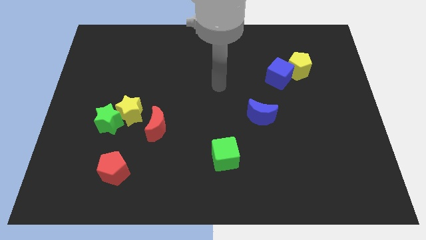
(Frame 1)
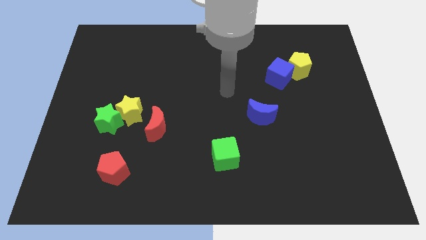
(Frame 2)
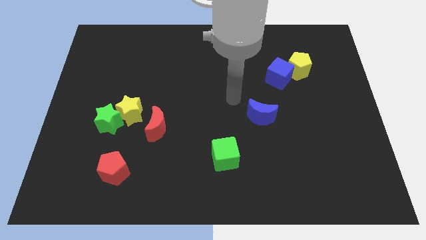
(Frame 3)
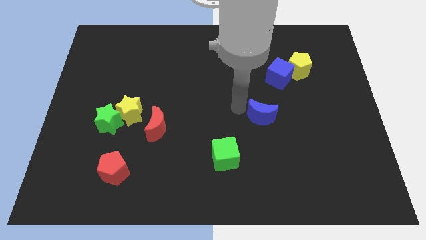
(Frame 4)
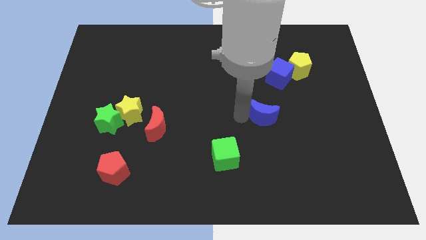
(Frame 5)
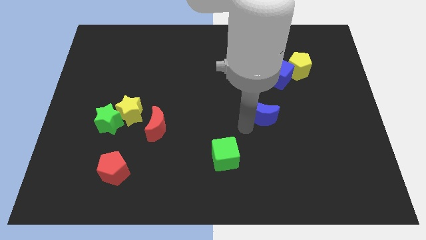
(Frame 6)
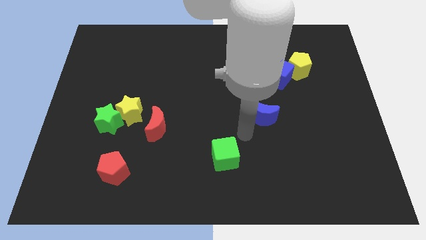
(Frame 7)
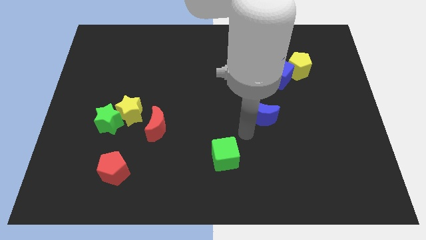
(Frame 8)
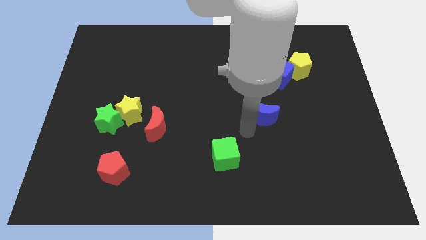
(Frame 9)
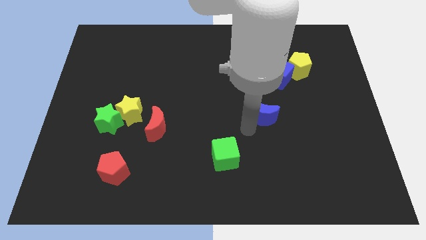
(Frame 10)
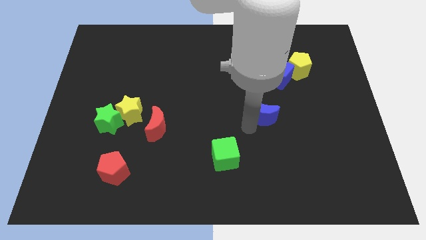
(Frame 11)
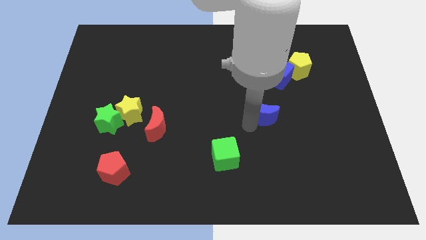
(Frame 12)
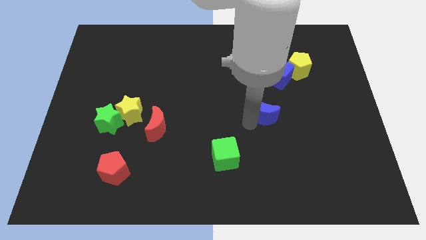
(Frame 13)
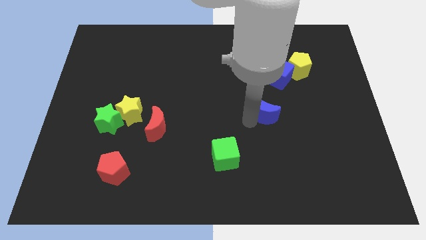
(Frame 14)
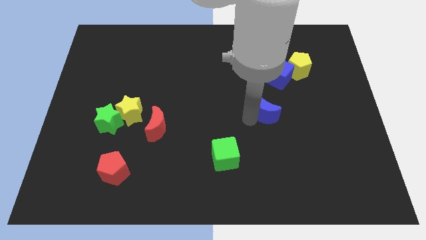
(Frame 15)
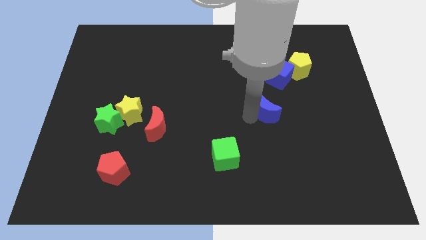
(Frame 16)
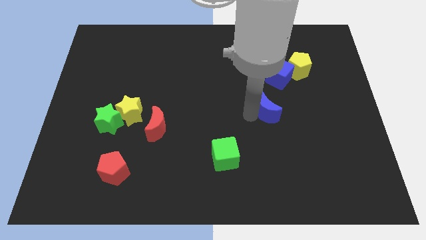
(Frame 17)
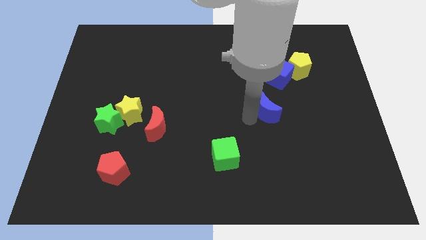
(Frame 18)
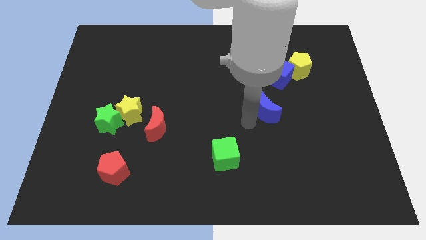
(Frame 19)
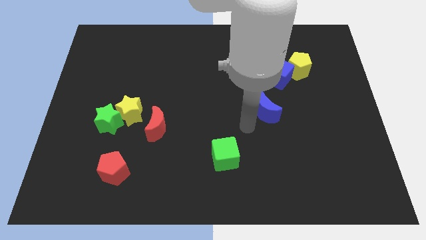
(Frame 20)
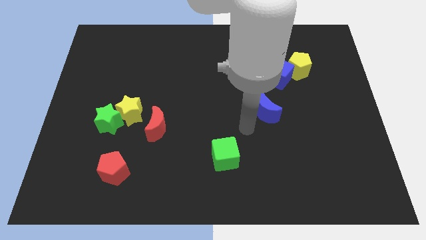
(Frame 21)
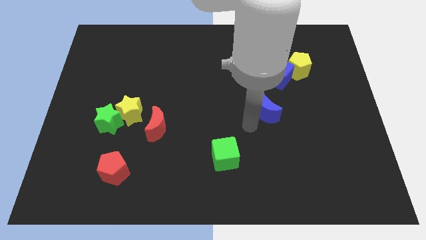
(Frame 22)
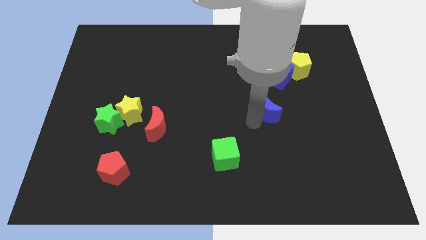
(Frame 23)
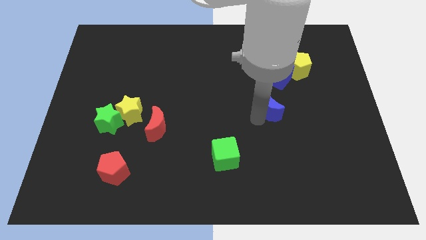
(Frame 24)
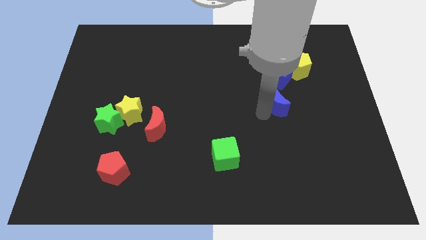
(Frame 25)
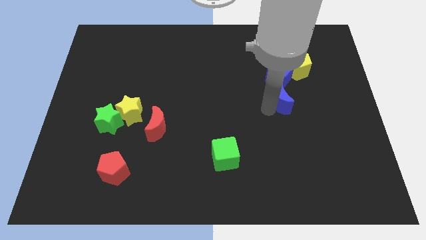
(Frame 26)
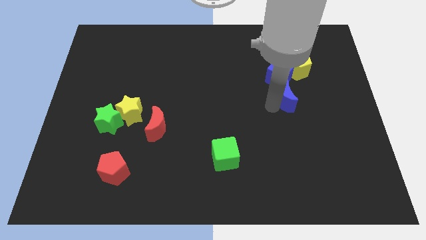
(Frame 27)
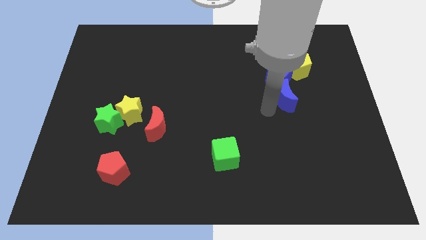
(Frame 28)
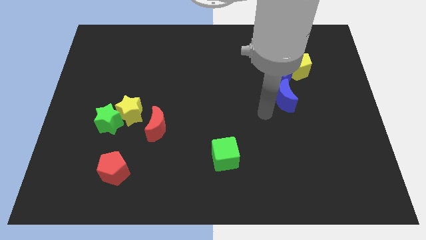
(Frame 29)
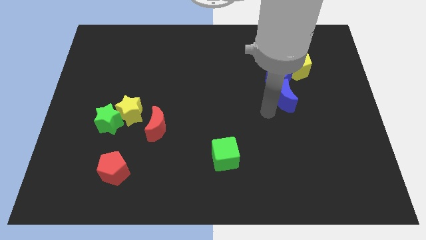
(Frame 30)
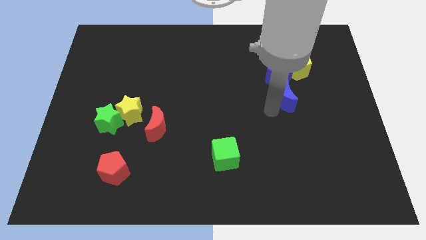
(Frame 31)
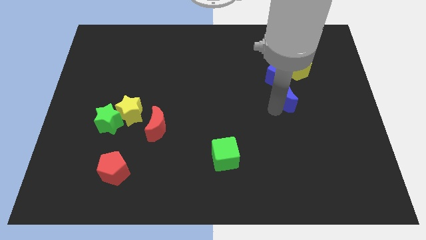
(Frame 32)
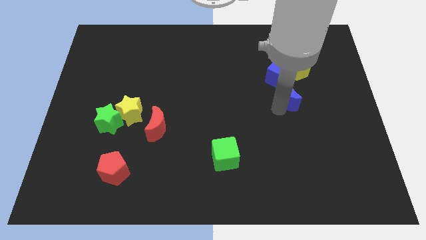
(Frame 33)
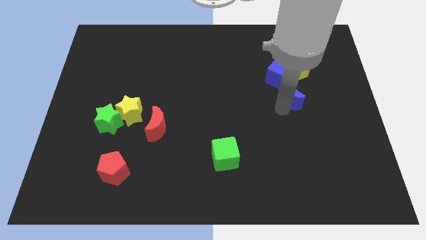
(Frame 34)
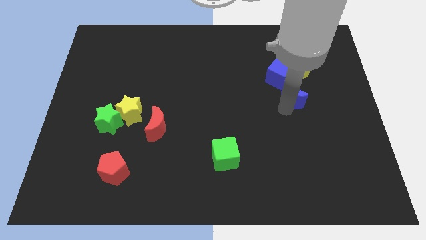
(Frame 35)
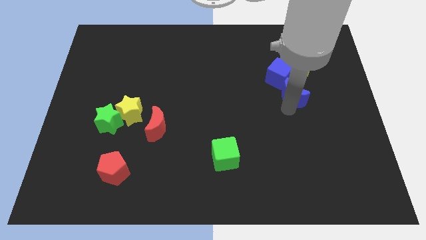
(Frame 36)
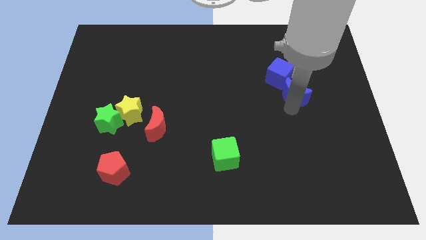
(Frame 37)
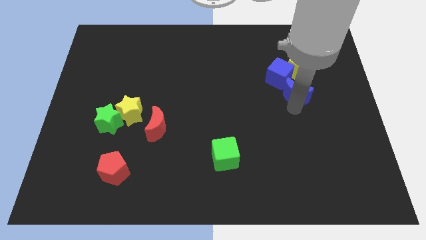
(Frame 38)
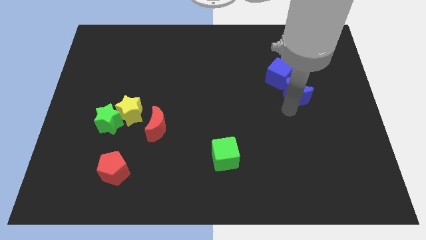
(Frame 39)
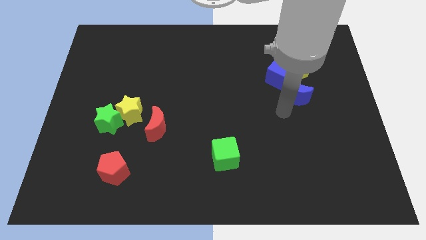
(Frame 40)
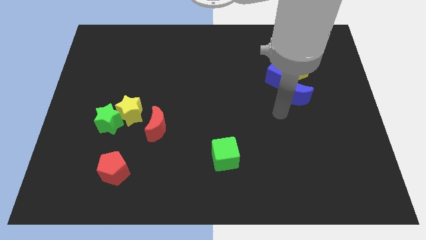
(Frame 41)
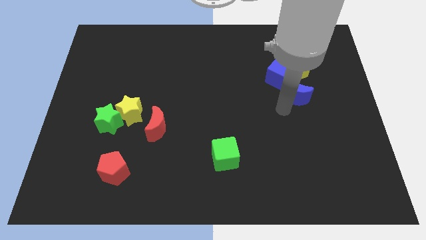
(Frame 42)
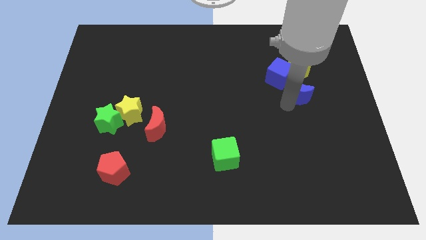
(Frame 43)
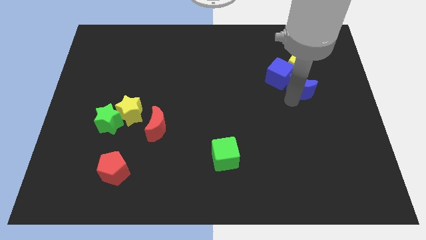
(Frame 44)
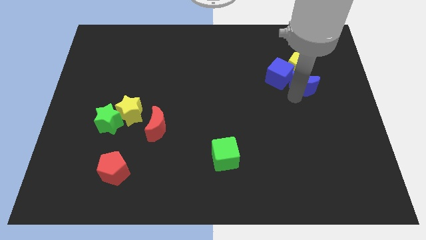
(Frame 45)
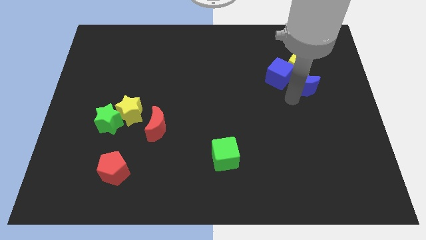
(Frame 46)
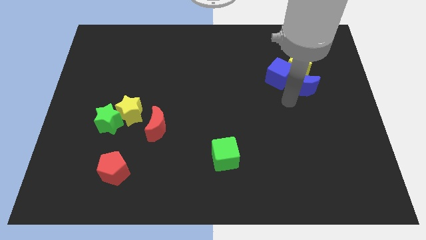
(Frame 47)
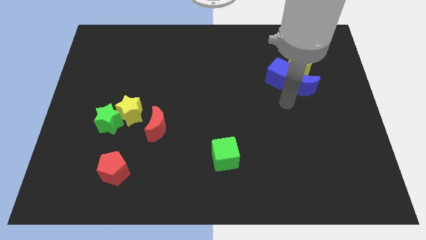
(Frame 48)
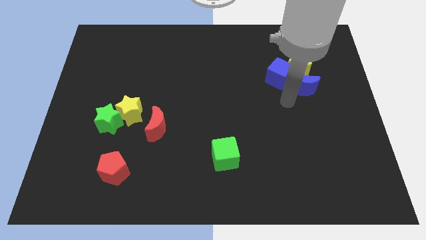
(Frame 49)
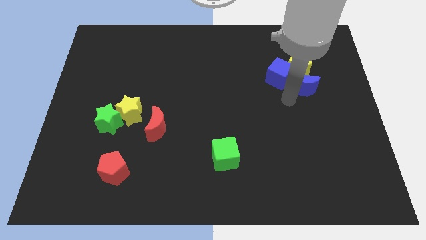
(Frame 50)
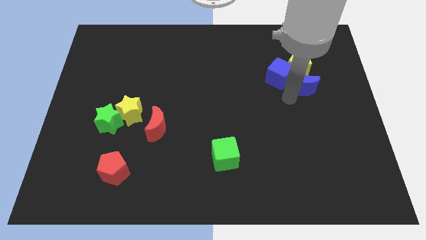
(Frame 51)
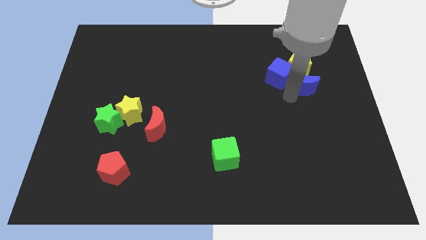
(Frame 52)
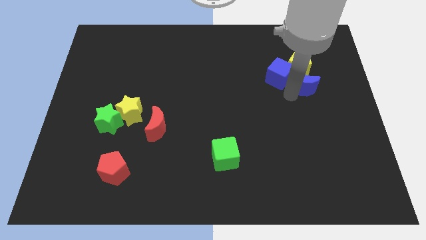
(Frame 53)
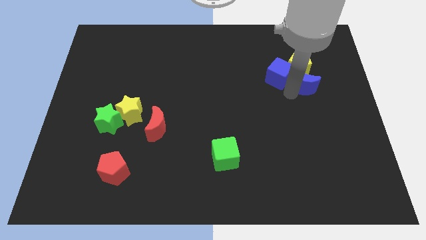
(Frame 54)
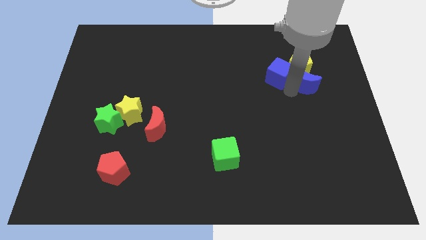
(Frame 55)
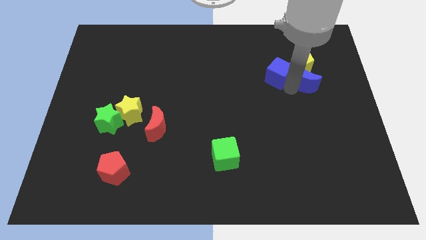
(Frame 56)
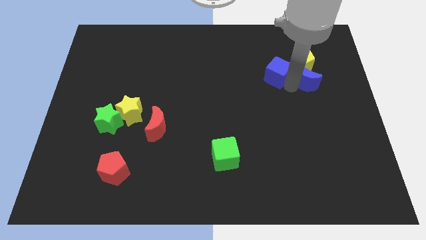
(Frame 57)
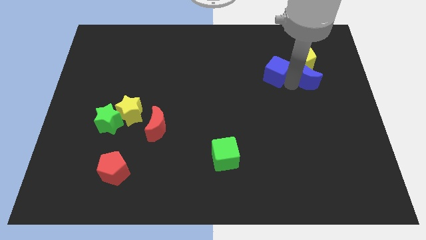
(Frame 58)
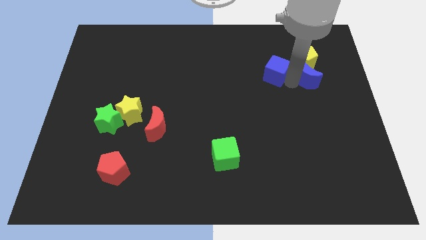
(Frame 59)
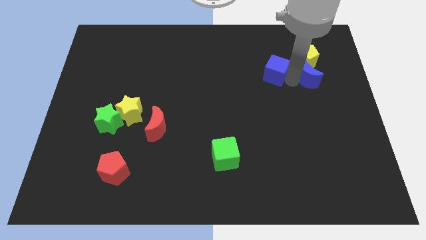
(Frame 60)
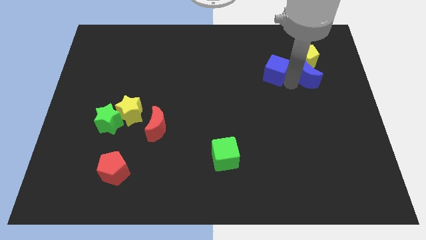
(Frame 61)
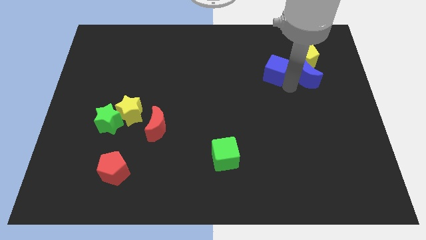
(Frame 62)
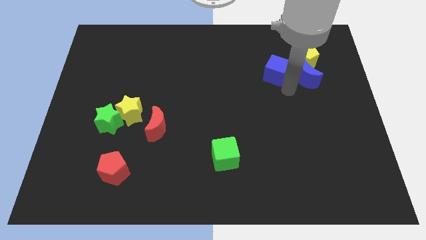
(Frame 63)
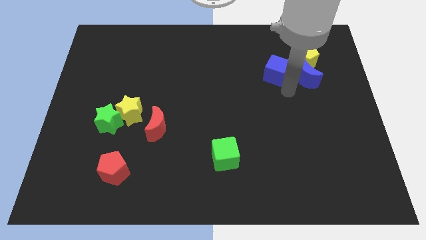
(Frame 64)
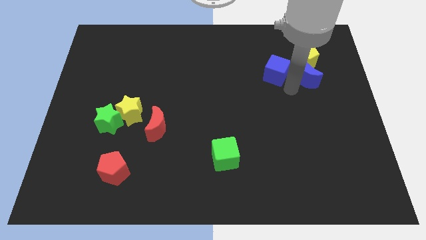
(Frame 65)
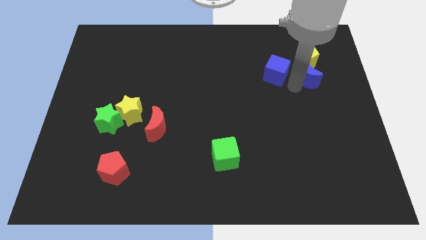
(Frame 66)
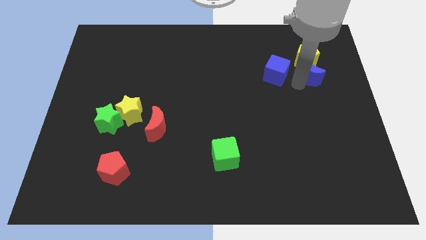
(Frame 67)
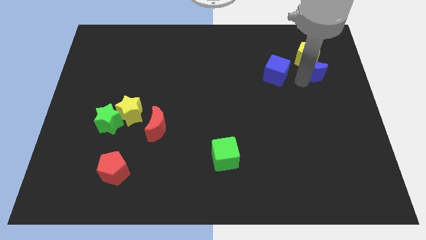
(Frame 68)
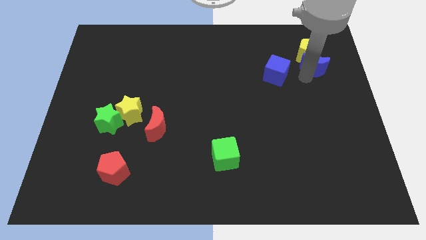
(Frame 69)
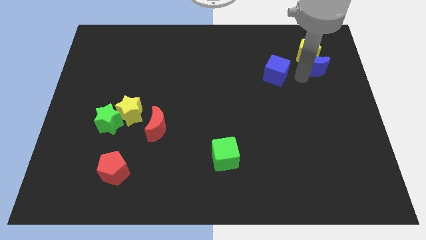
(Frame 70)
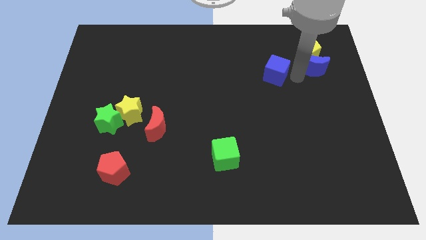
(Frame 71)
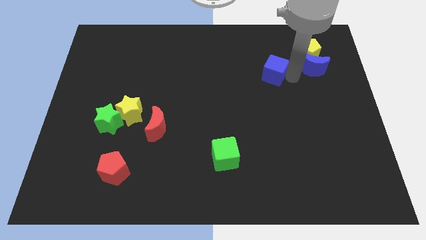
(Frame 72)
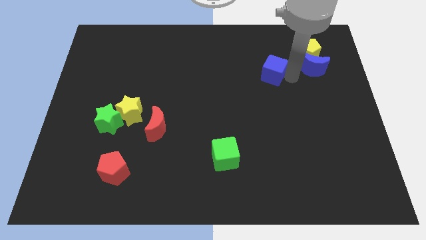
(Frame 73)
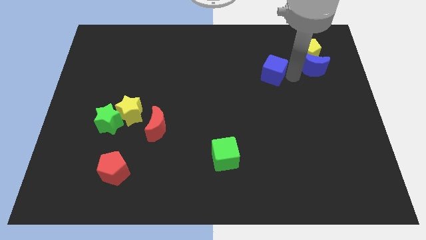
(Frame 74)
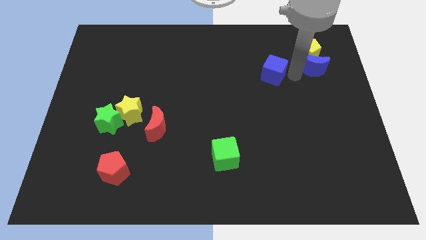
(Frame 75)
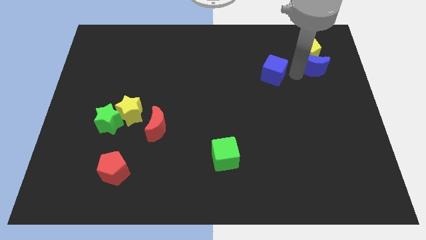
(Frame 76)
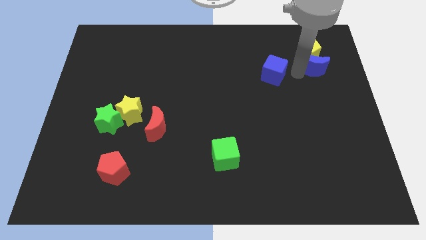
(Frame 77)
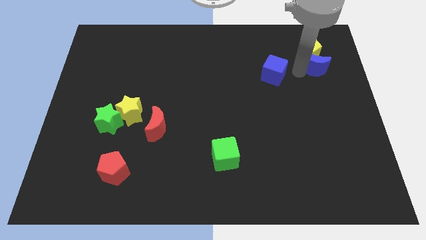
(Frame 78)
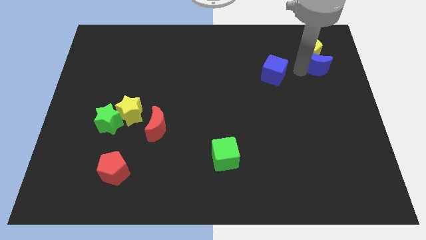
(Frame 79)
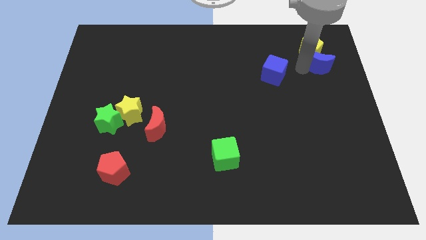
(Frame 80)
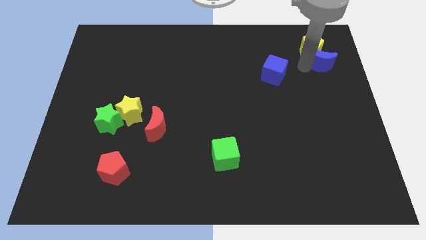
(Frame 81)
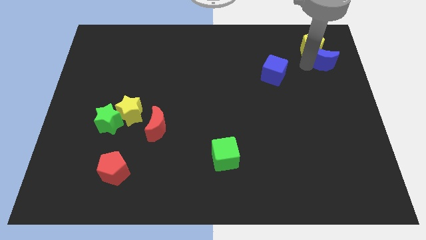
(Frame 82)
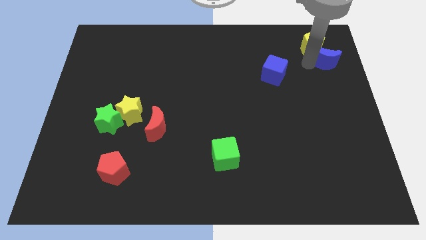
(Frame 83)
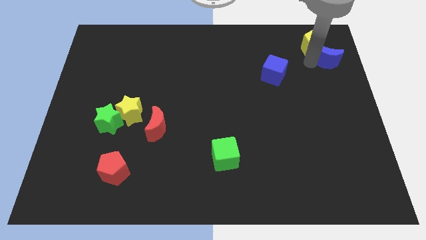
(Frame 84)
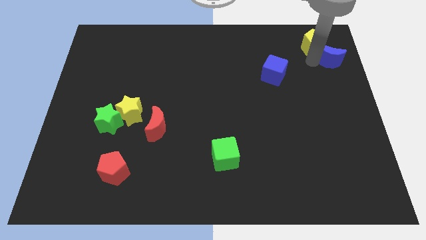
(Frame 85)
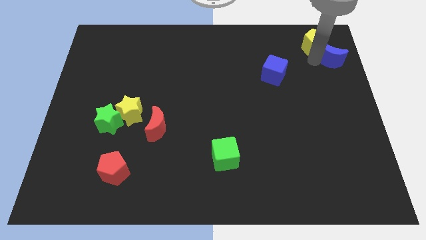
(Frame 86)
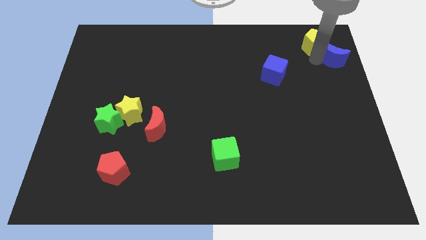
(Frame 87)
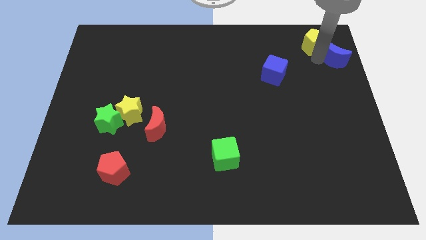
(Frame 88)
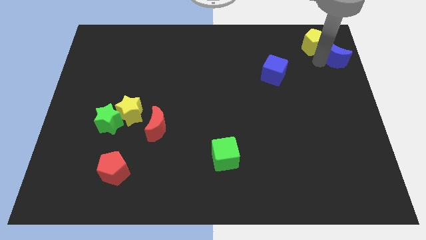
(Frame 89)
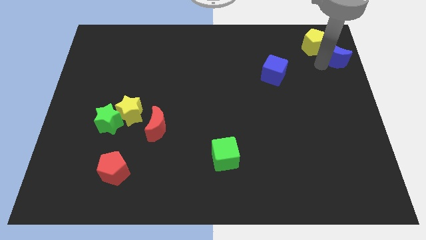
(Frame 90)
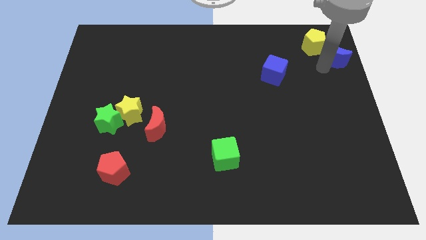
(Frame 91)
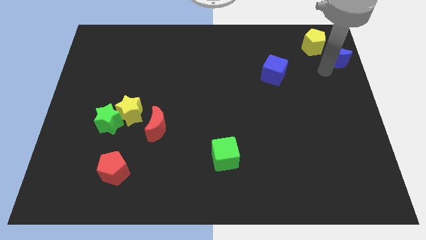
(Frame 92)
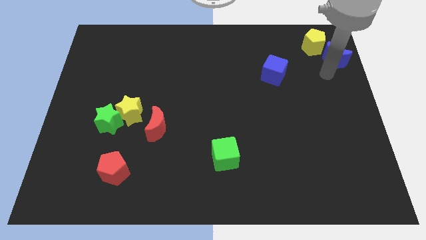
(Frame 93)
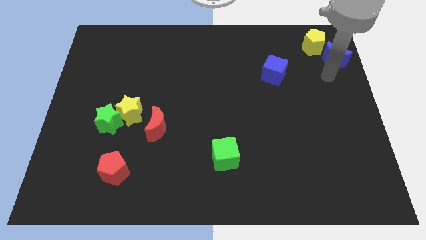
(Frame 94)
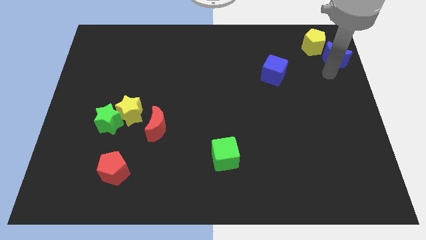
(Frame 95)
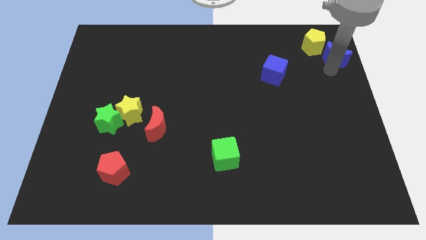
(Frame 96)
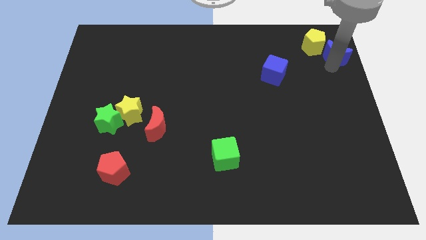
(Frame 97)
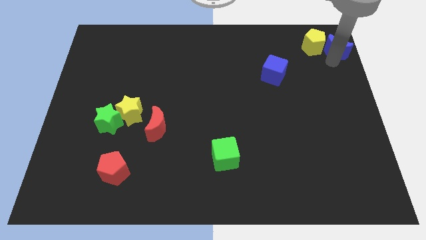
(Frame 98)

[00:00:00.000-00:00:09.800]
slide the blue moon to the upper right corner
